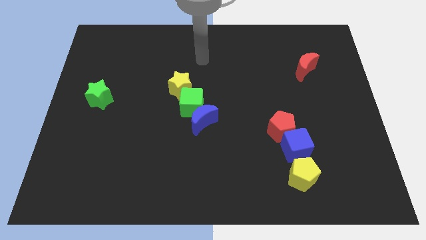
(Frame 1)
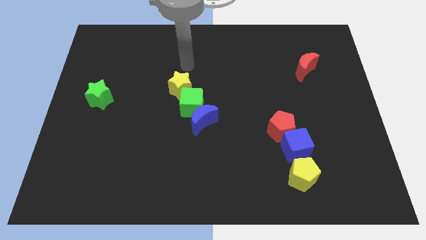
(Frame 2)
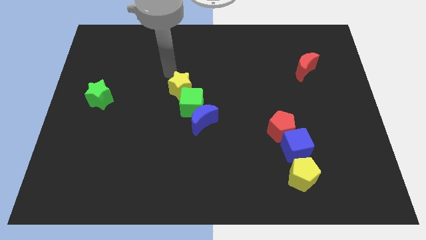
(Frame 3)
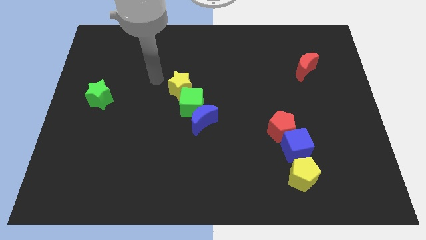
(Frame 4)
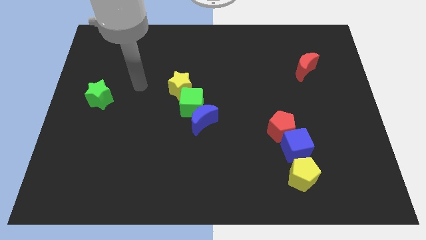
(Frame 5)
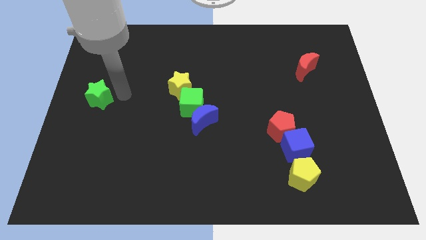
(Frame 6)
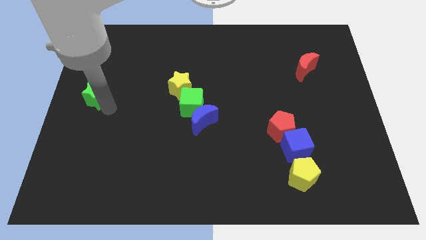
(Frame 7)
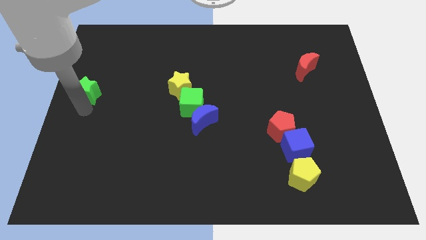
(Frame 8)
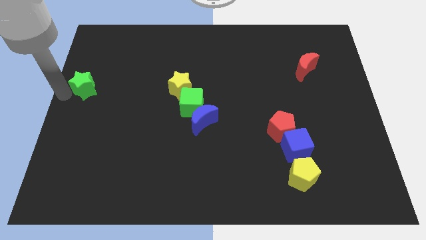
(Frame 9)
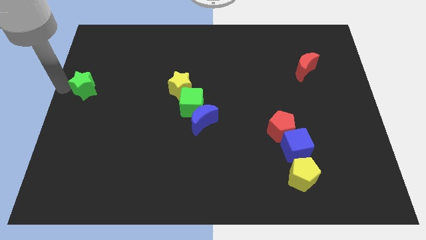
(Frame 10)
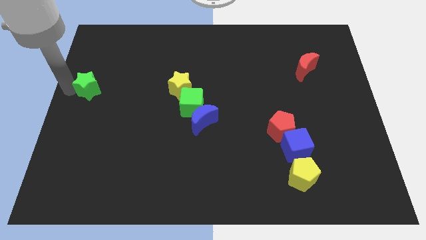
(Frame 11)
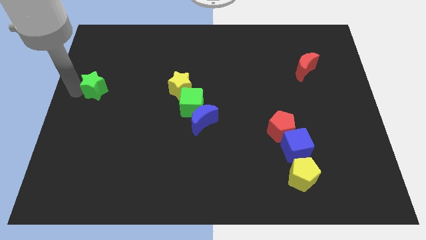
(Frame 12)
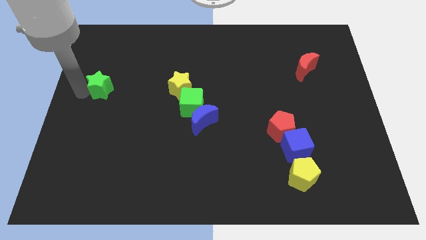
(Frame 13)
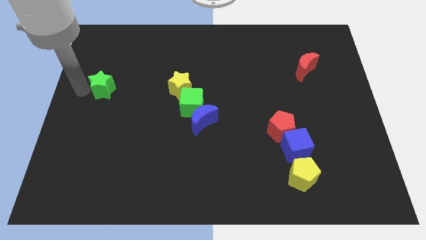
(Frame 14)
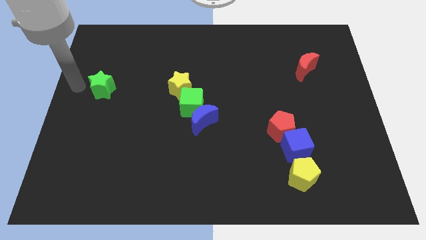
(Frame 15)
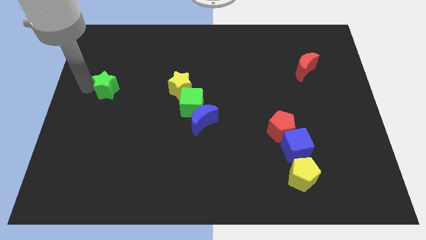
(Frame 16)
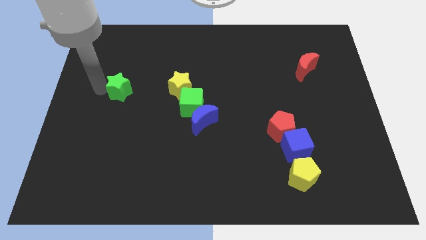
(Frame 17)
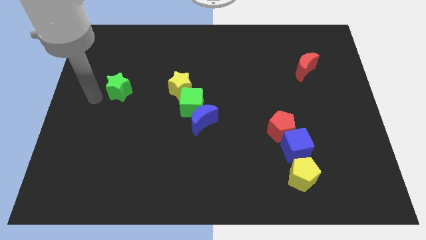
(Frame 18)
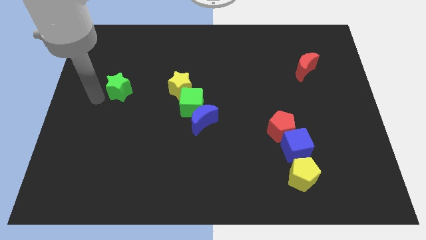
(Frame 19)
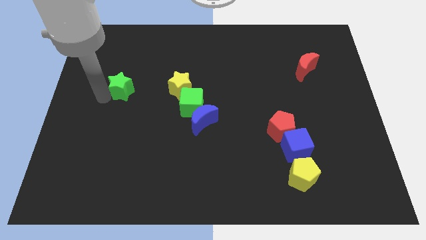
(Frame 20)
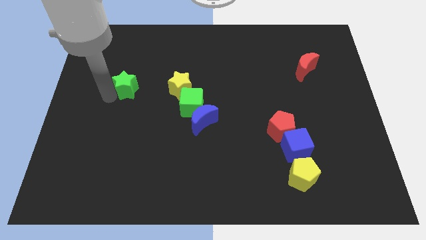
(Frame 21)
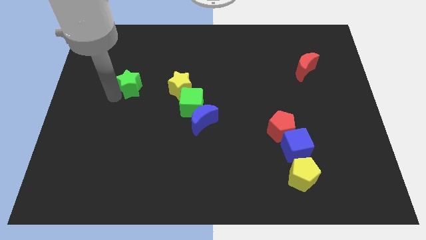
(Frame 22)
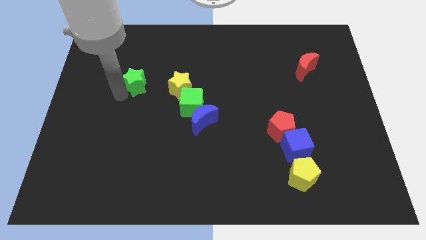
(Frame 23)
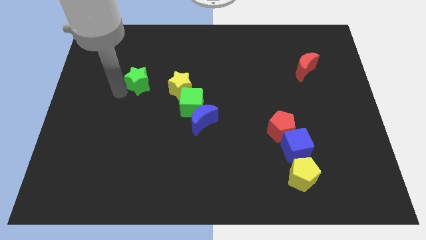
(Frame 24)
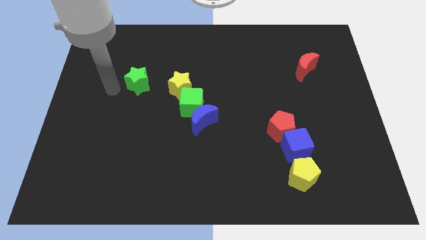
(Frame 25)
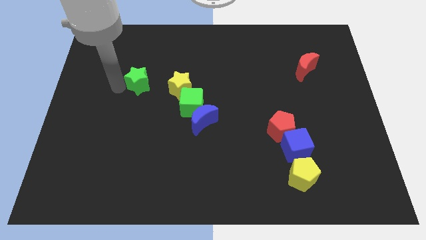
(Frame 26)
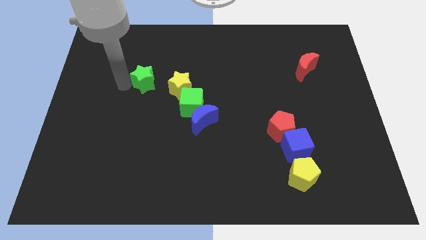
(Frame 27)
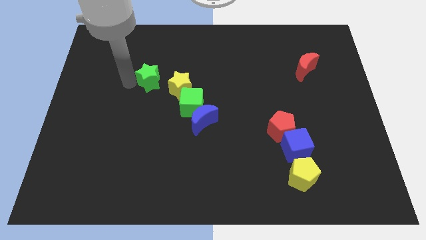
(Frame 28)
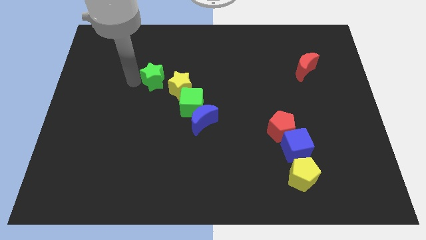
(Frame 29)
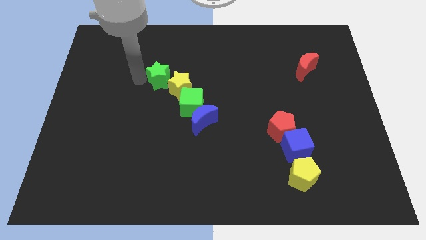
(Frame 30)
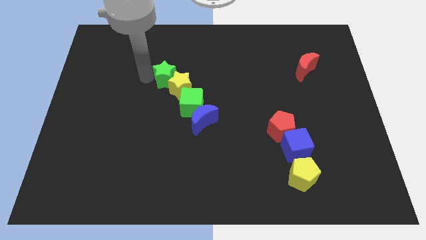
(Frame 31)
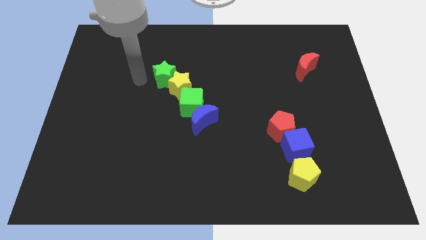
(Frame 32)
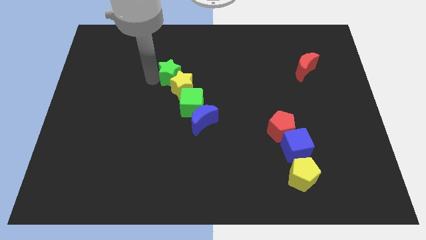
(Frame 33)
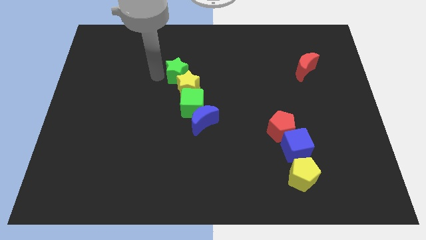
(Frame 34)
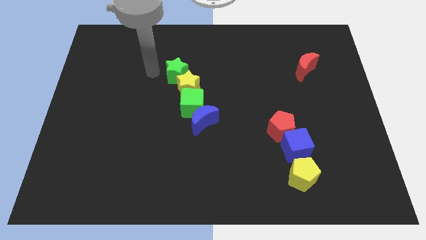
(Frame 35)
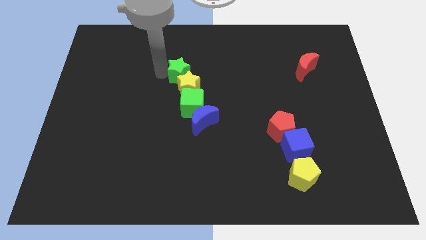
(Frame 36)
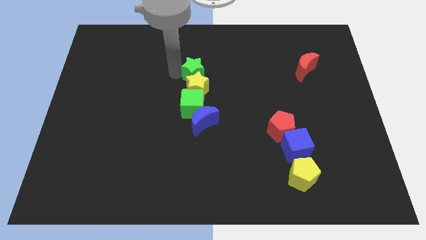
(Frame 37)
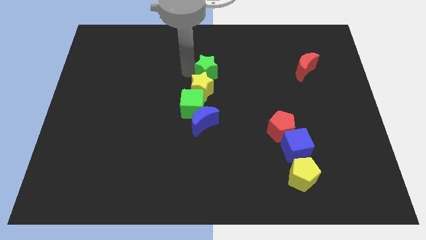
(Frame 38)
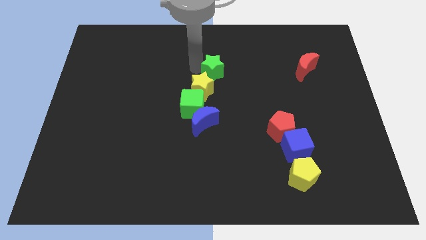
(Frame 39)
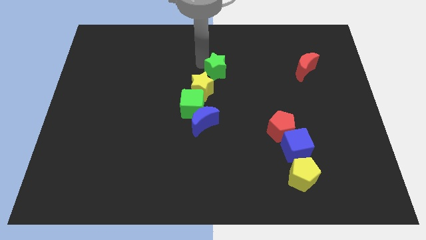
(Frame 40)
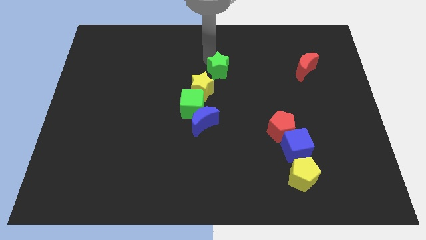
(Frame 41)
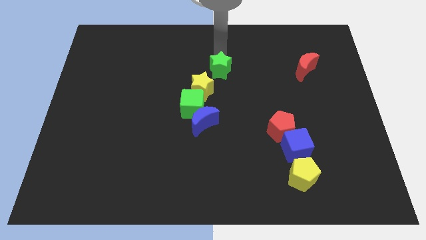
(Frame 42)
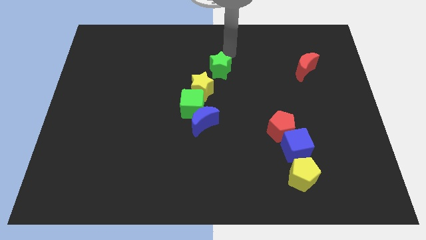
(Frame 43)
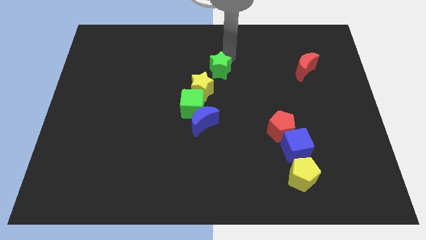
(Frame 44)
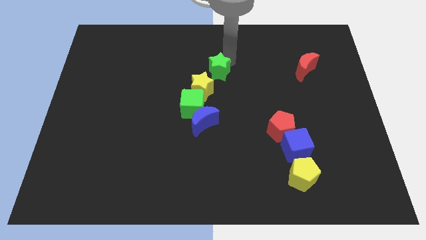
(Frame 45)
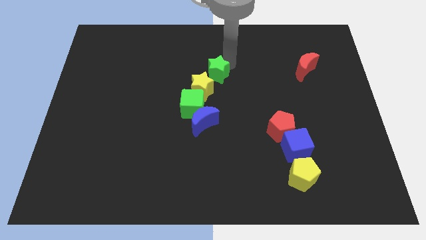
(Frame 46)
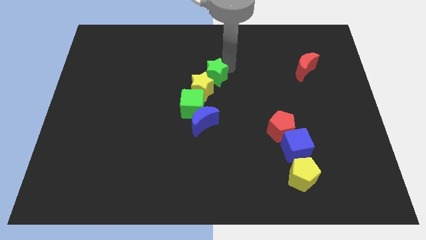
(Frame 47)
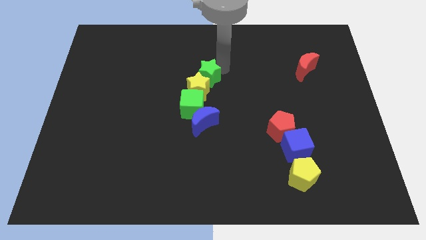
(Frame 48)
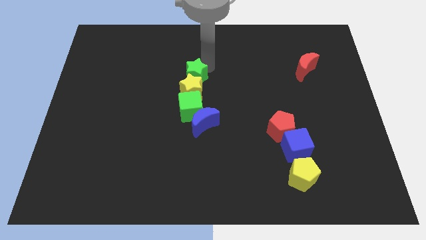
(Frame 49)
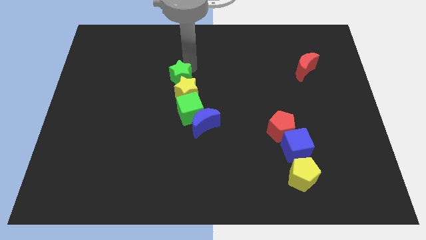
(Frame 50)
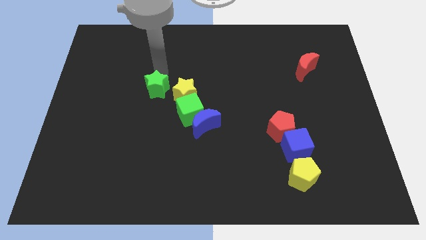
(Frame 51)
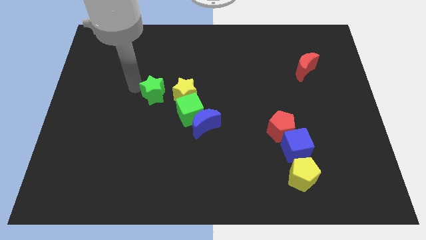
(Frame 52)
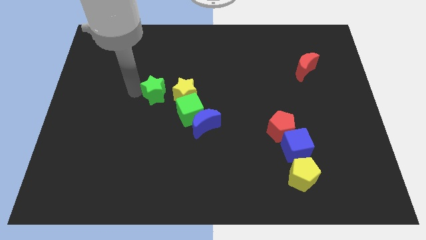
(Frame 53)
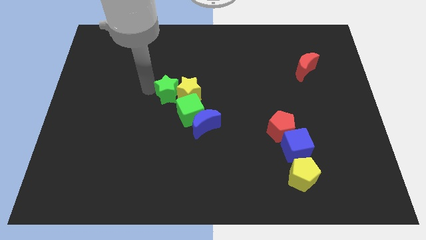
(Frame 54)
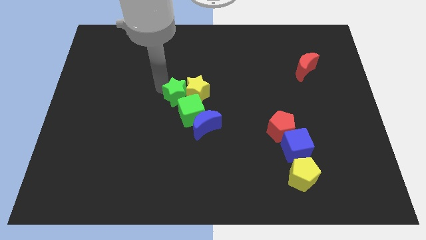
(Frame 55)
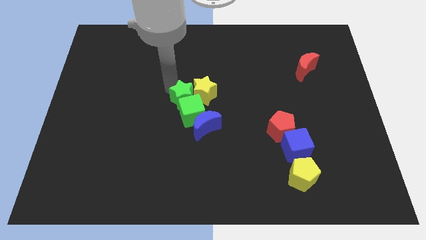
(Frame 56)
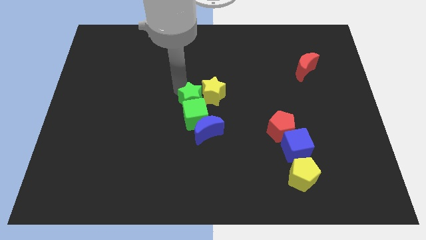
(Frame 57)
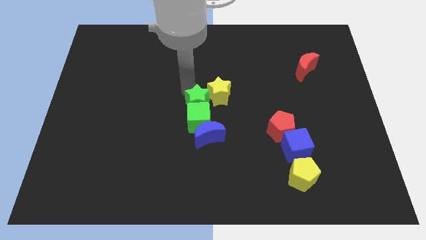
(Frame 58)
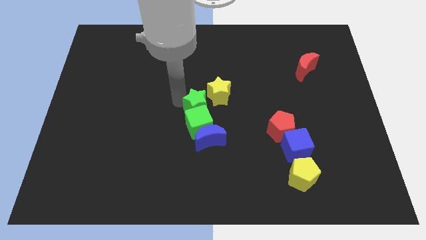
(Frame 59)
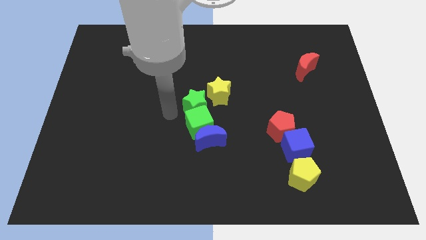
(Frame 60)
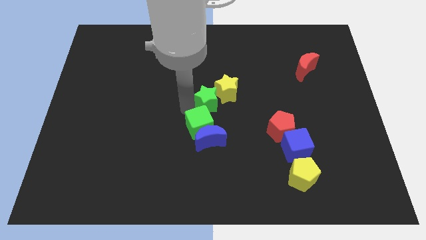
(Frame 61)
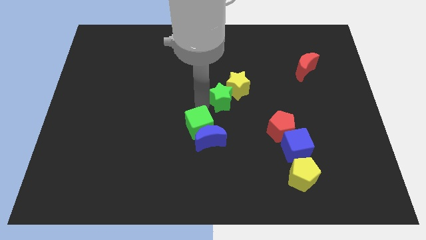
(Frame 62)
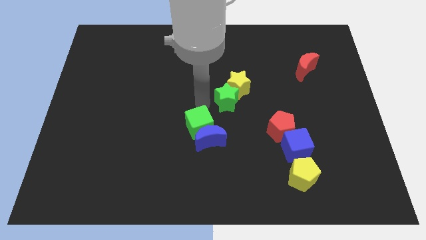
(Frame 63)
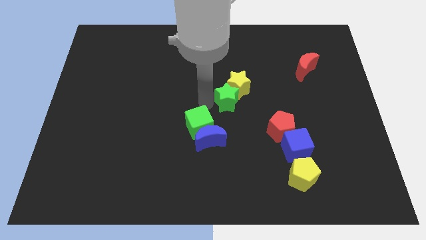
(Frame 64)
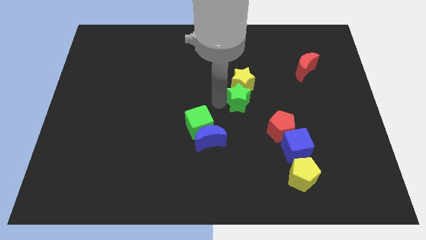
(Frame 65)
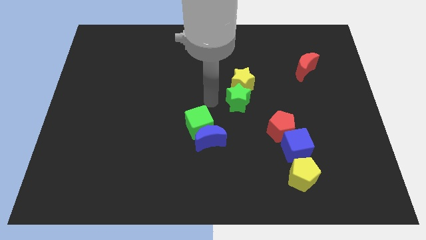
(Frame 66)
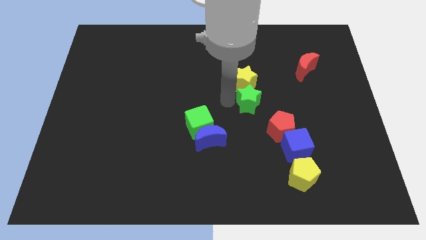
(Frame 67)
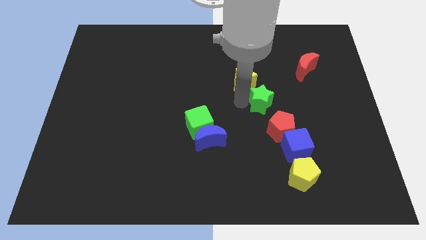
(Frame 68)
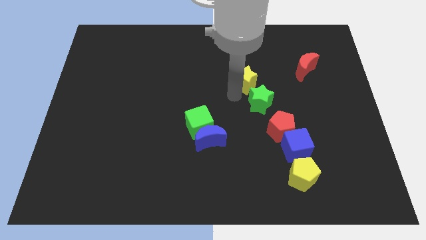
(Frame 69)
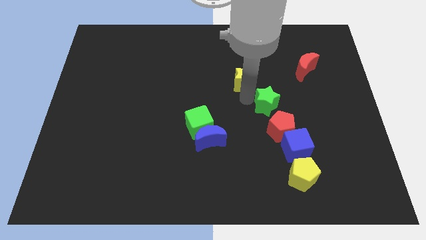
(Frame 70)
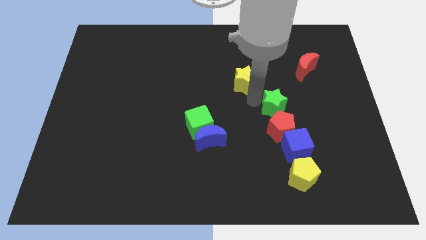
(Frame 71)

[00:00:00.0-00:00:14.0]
slide the green star to the top side of the blue cube
